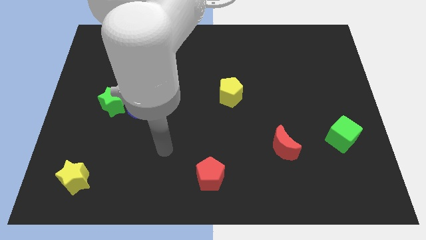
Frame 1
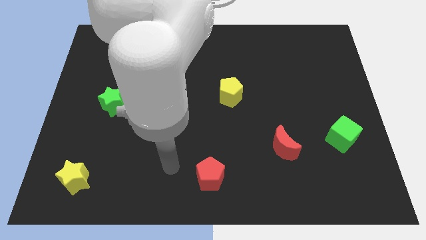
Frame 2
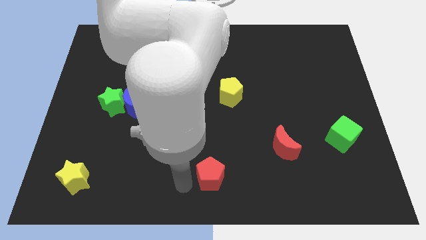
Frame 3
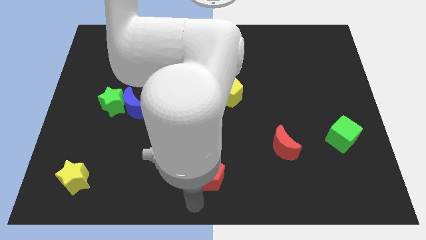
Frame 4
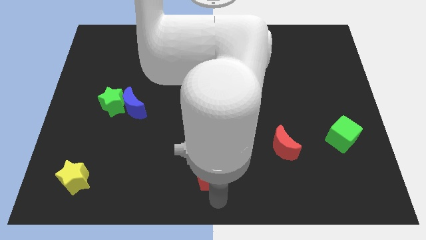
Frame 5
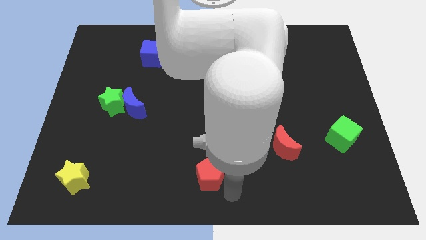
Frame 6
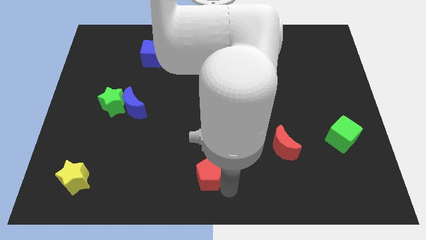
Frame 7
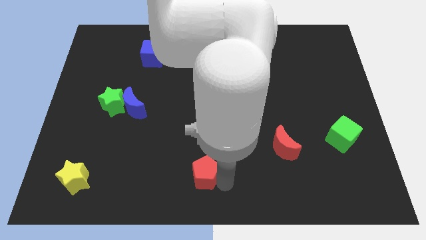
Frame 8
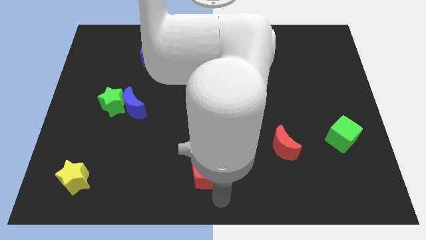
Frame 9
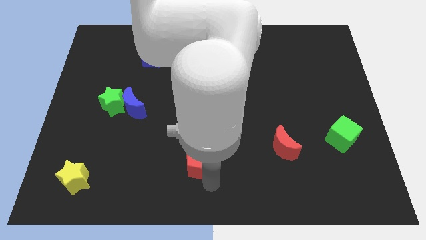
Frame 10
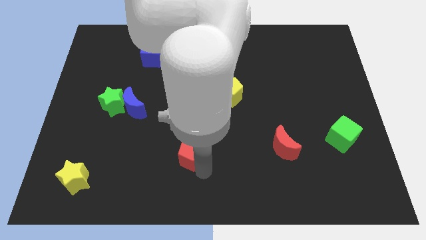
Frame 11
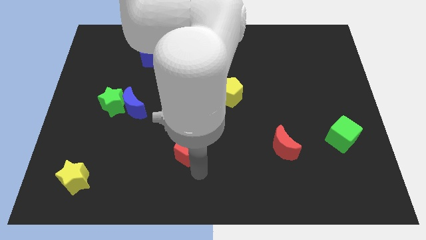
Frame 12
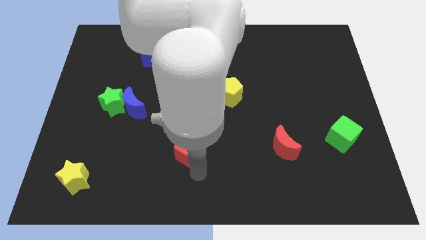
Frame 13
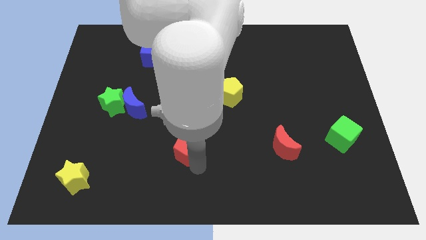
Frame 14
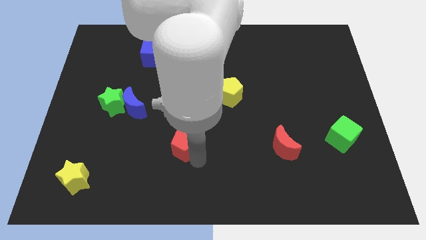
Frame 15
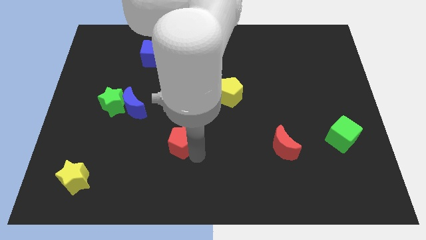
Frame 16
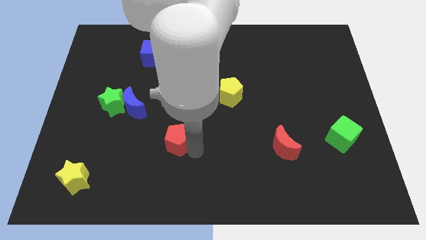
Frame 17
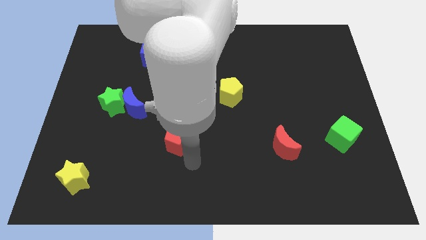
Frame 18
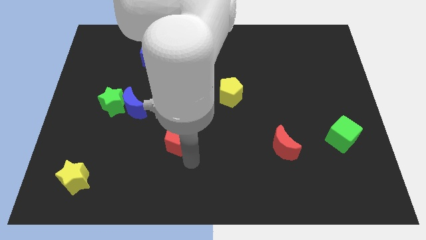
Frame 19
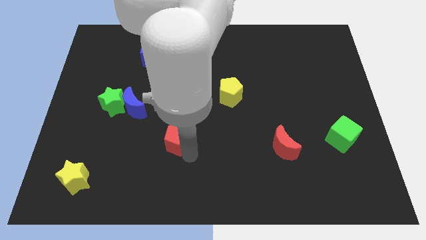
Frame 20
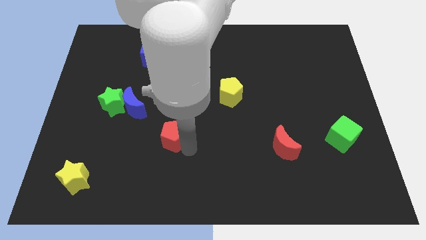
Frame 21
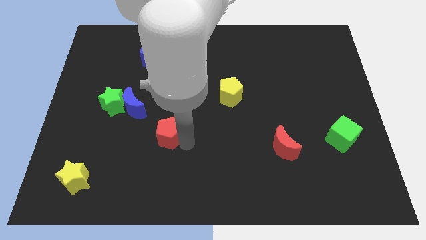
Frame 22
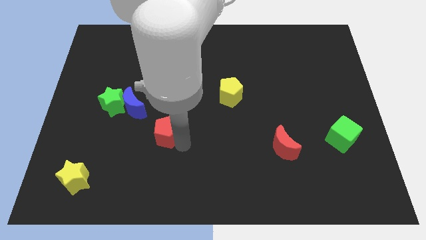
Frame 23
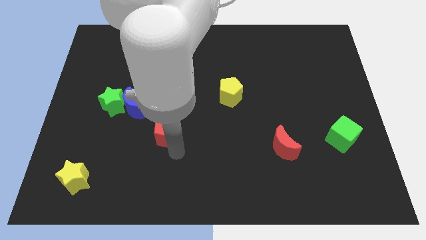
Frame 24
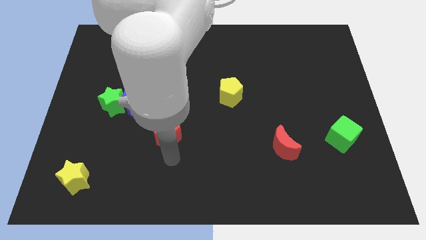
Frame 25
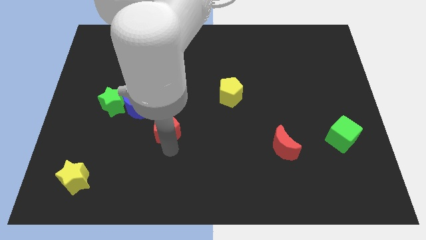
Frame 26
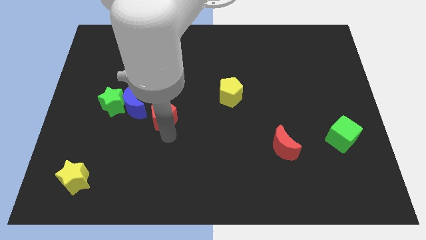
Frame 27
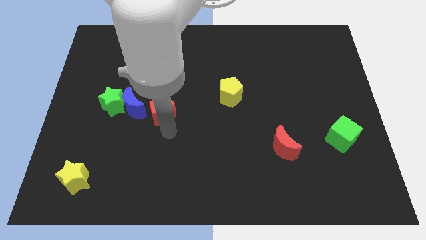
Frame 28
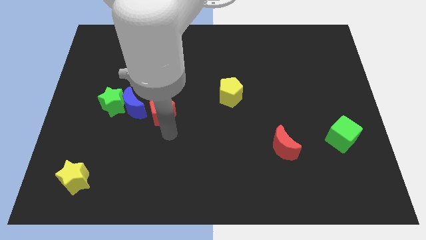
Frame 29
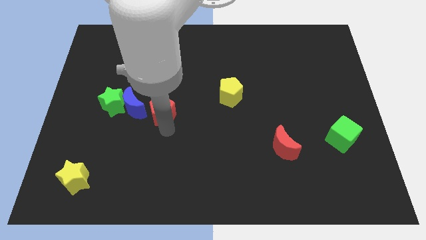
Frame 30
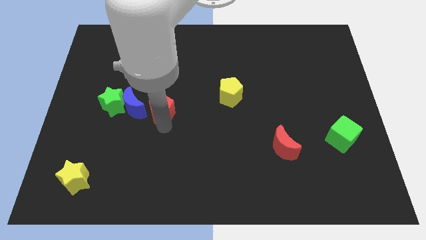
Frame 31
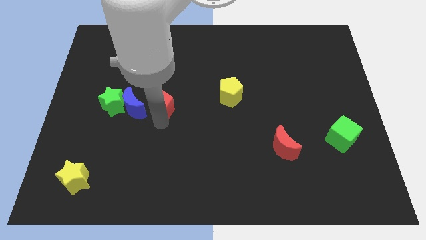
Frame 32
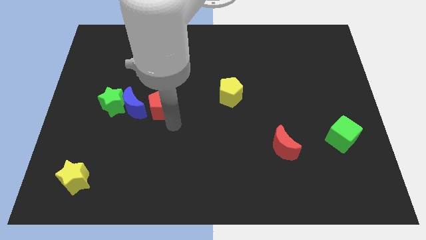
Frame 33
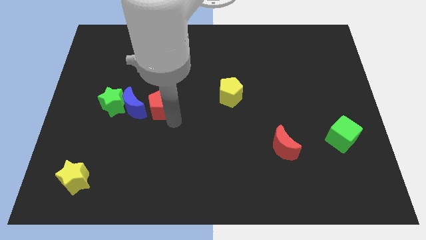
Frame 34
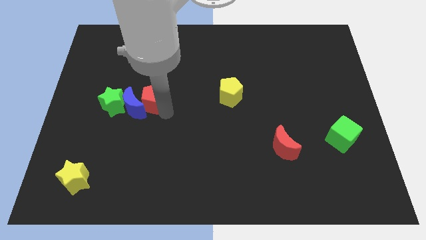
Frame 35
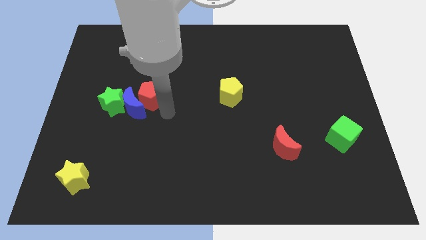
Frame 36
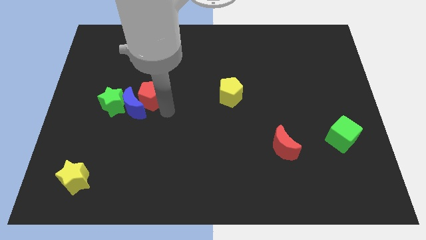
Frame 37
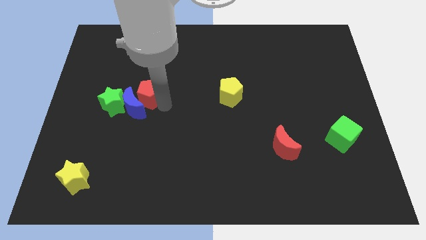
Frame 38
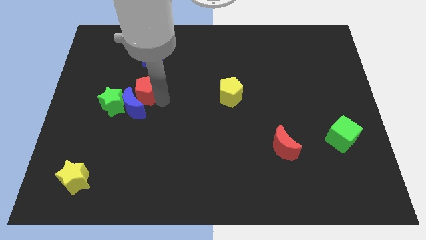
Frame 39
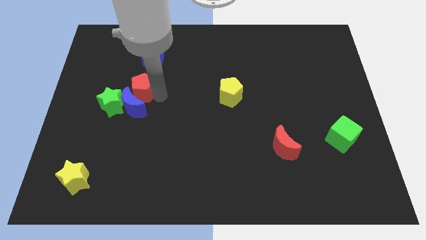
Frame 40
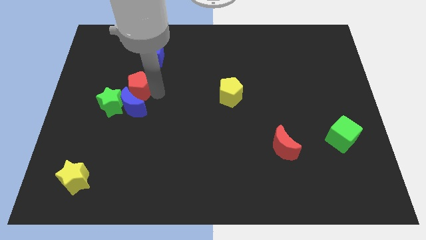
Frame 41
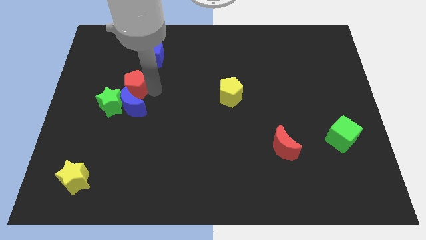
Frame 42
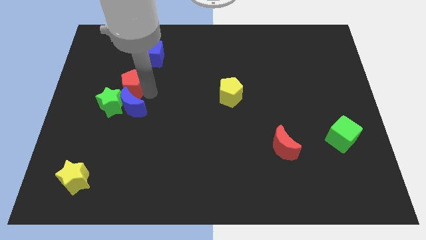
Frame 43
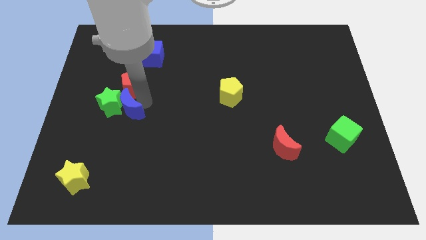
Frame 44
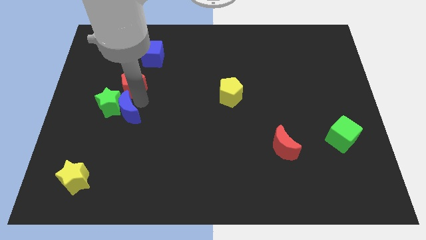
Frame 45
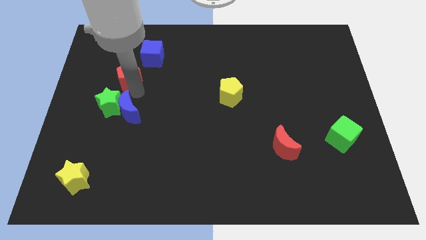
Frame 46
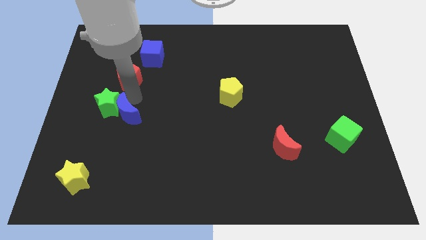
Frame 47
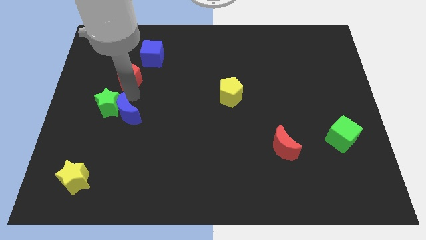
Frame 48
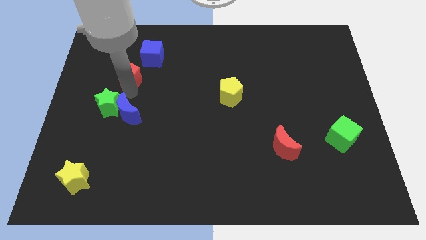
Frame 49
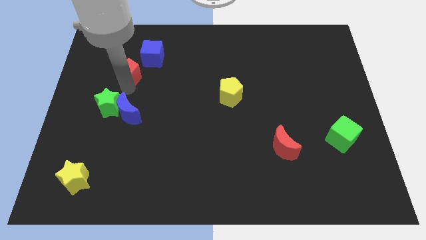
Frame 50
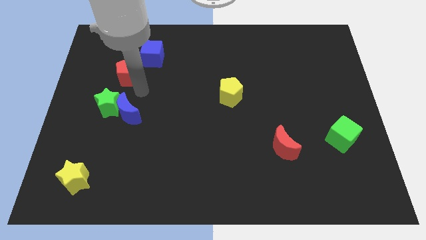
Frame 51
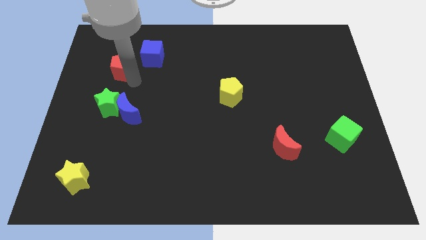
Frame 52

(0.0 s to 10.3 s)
move the red pentagon to the left side of the blue cube

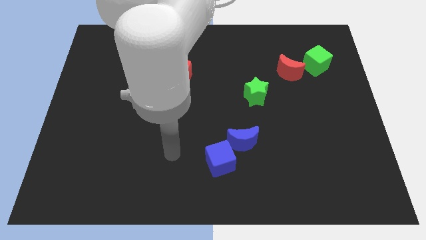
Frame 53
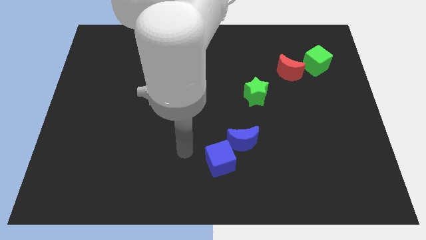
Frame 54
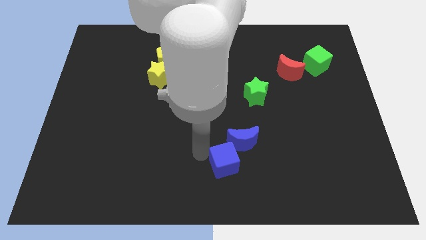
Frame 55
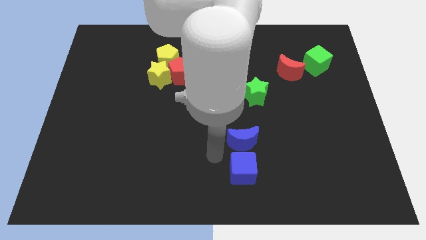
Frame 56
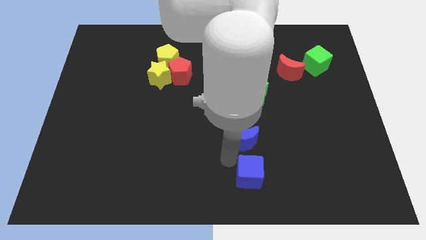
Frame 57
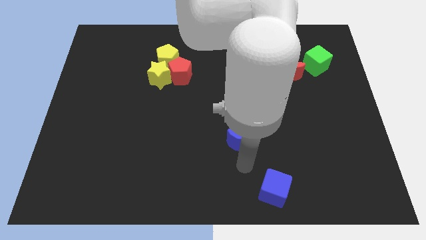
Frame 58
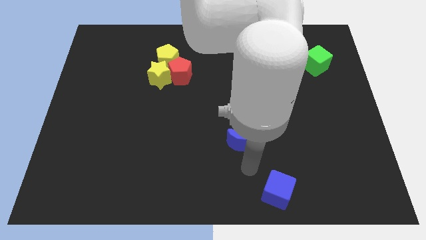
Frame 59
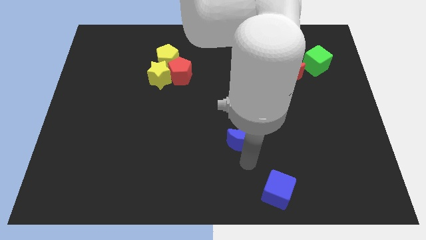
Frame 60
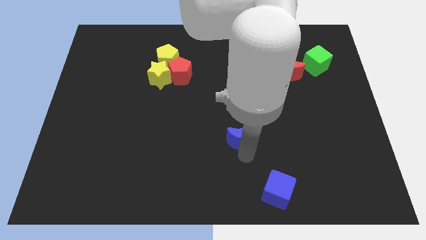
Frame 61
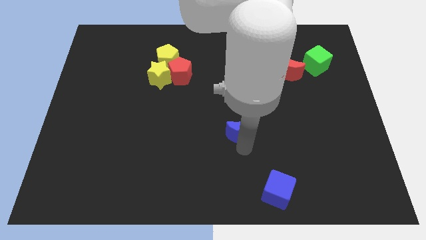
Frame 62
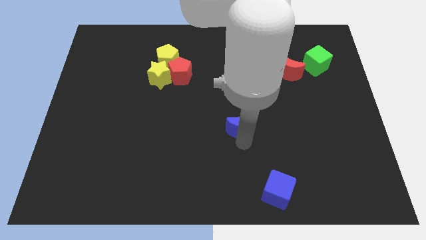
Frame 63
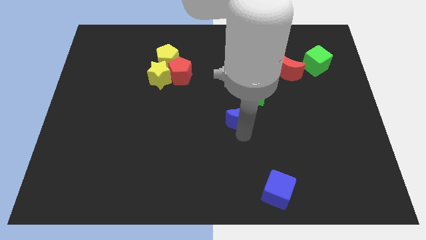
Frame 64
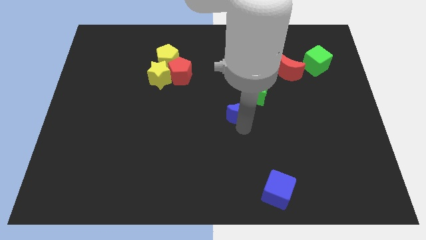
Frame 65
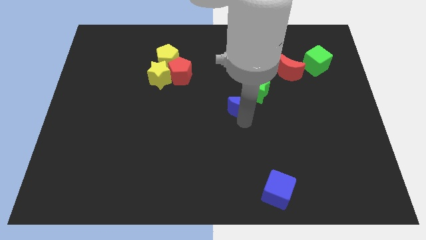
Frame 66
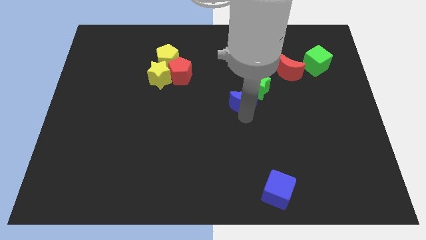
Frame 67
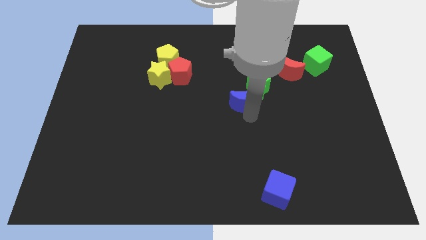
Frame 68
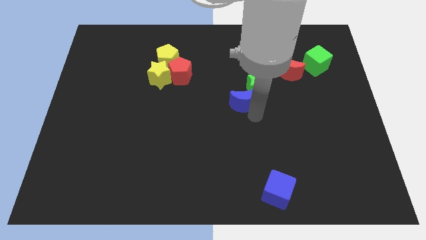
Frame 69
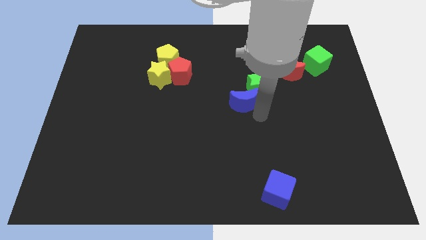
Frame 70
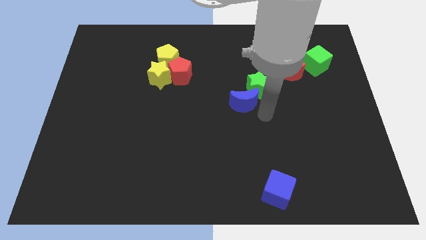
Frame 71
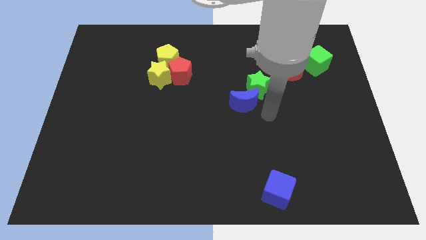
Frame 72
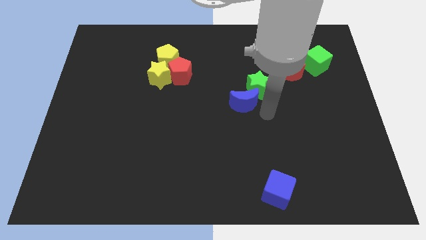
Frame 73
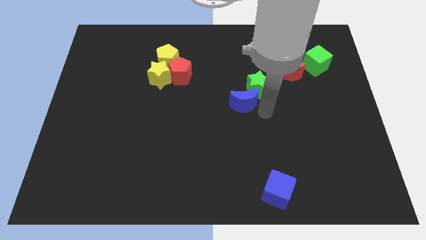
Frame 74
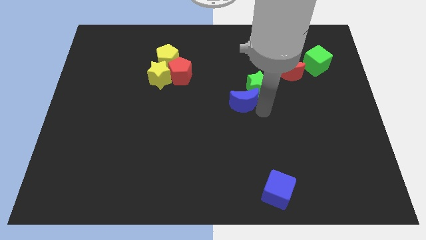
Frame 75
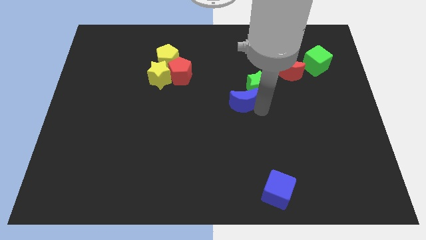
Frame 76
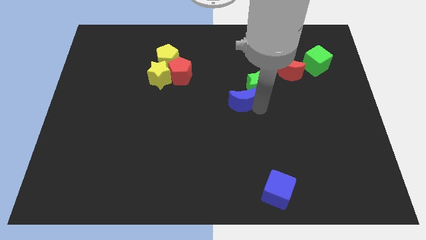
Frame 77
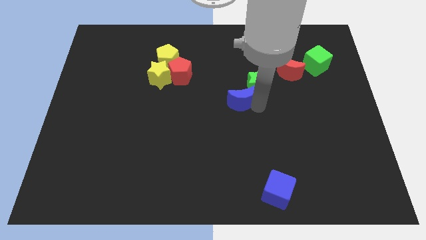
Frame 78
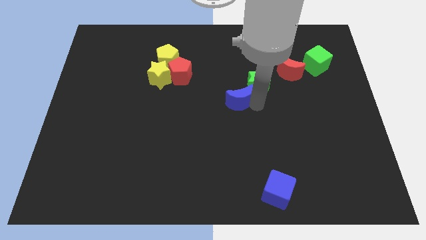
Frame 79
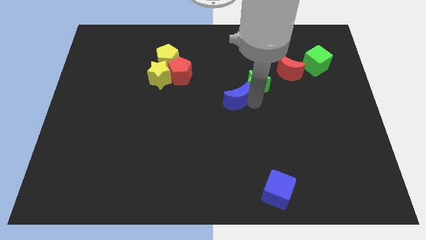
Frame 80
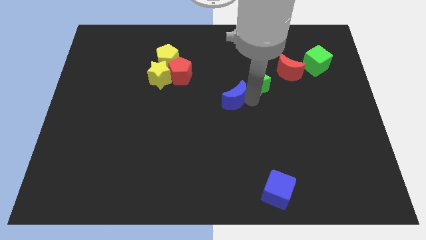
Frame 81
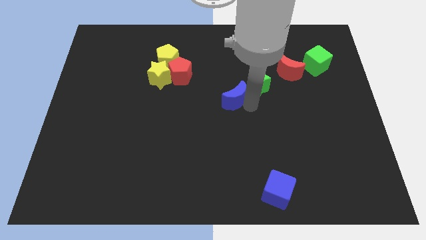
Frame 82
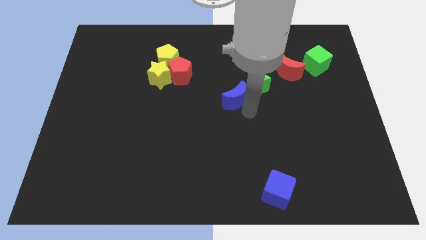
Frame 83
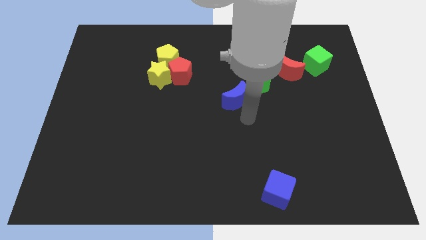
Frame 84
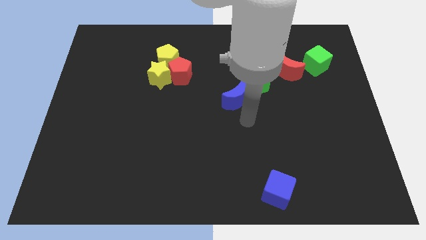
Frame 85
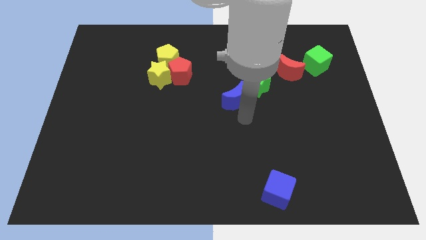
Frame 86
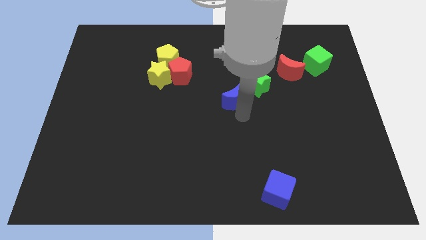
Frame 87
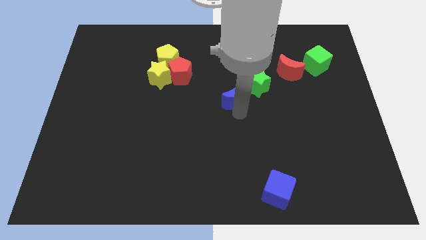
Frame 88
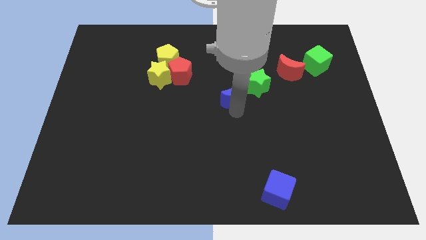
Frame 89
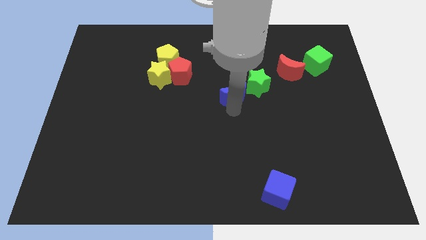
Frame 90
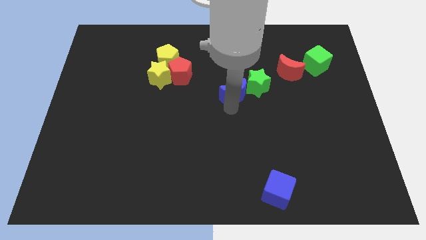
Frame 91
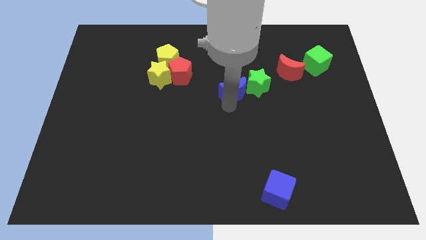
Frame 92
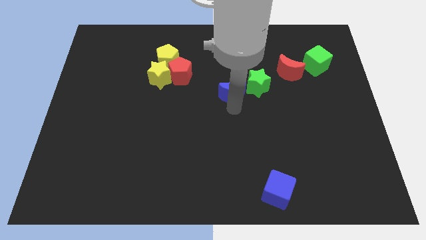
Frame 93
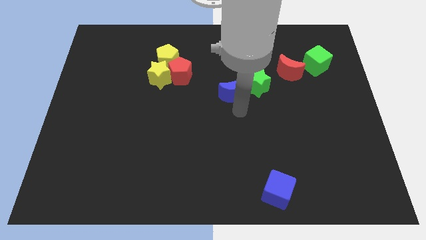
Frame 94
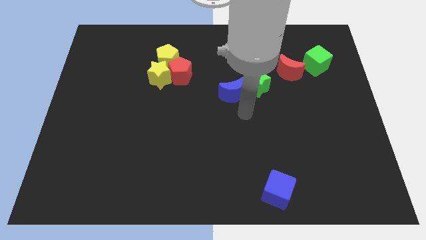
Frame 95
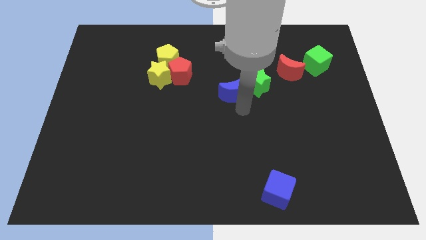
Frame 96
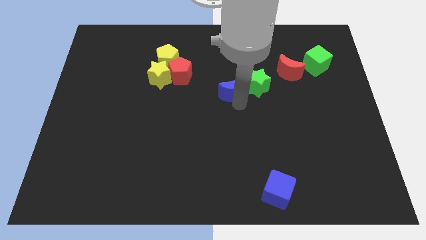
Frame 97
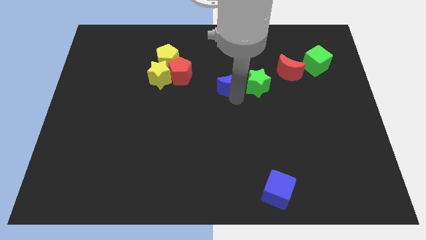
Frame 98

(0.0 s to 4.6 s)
put the blue moon to the right of the red pentagon
